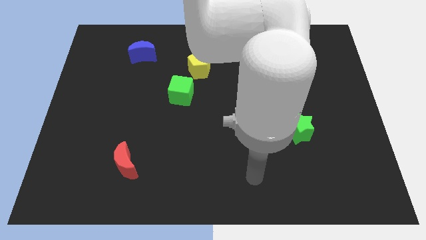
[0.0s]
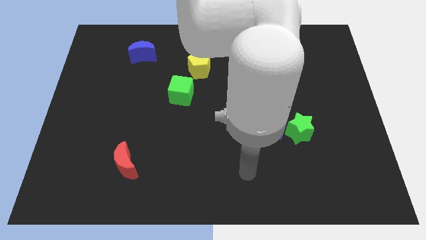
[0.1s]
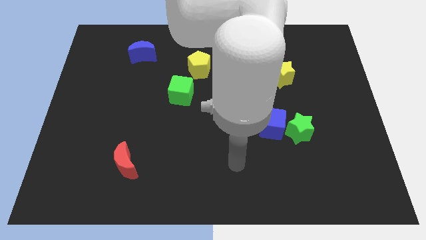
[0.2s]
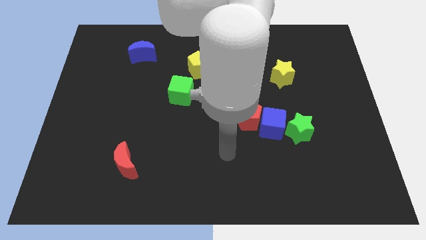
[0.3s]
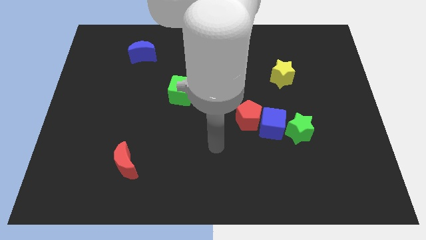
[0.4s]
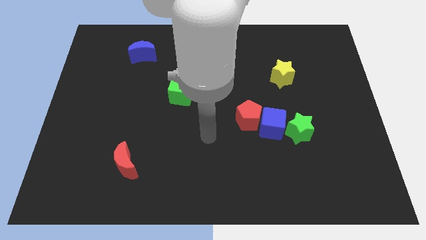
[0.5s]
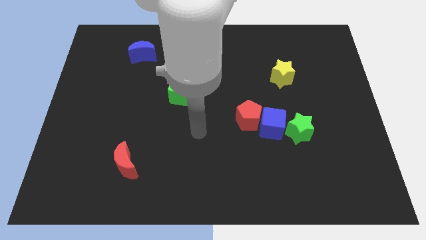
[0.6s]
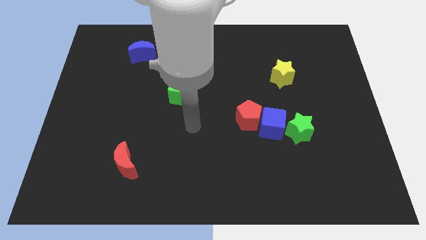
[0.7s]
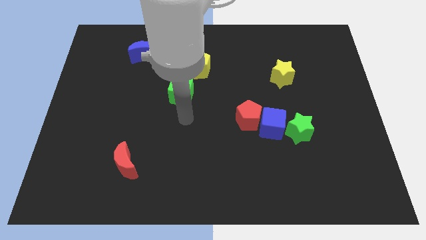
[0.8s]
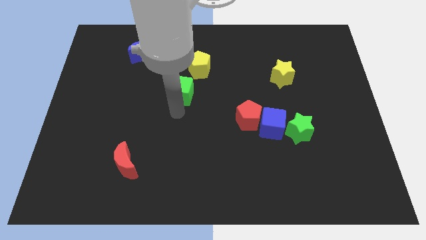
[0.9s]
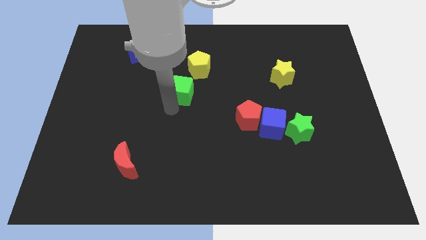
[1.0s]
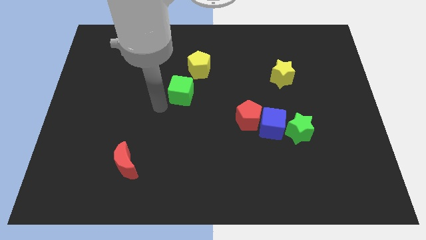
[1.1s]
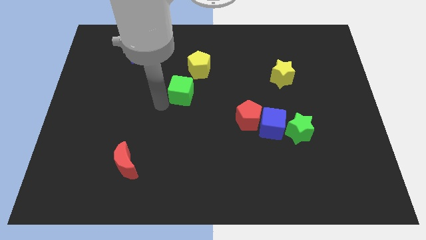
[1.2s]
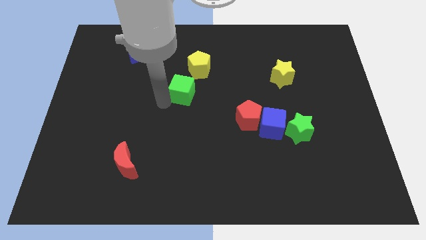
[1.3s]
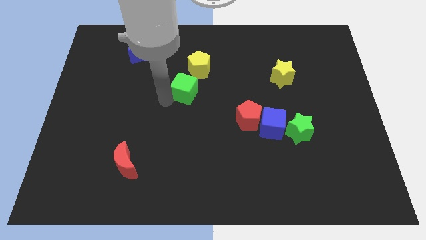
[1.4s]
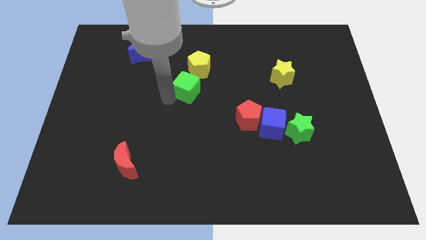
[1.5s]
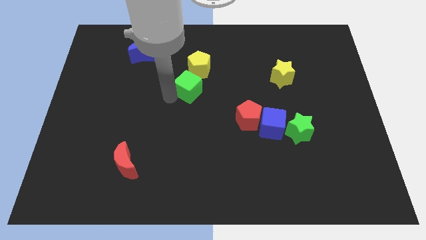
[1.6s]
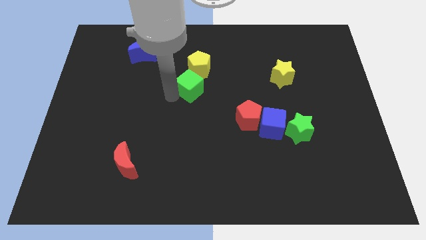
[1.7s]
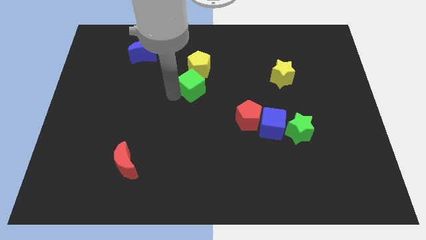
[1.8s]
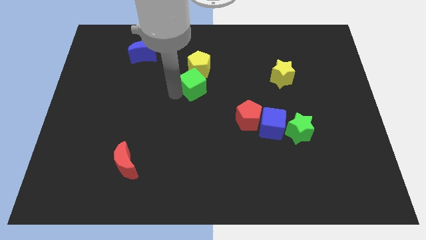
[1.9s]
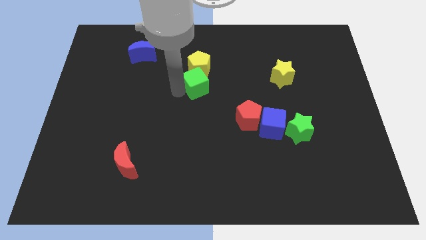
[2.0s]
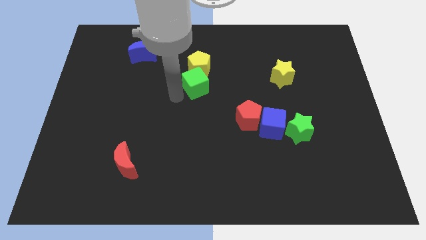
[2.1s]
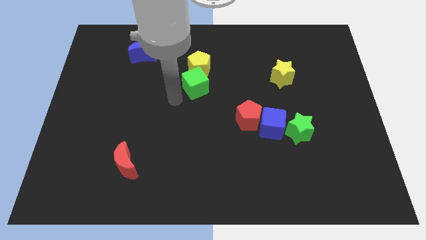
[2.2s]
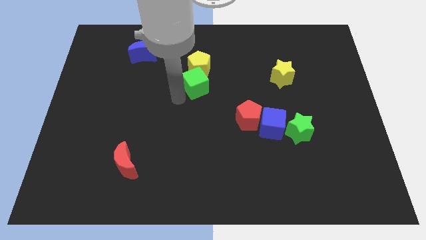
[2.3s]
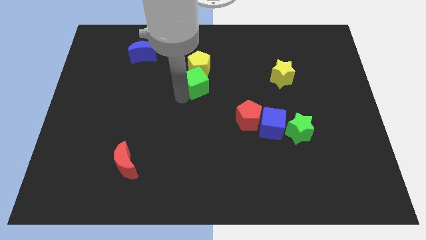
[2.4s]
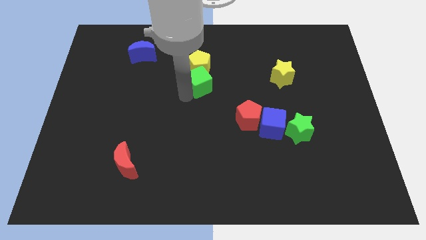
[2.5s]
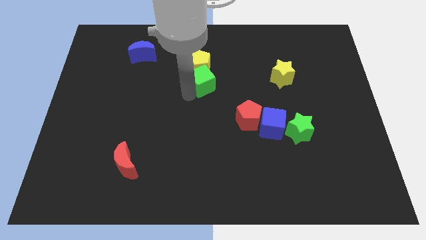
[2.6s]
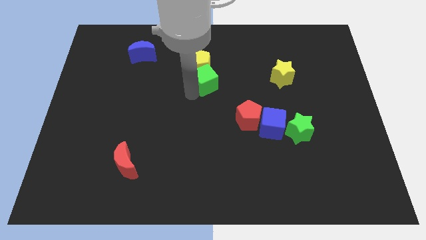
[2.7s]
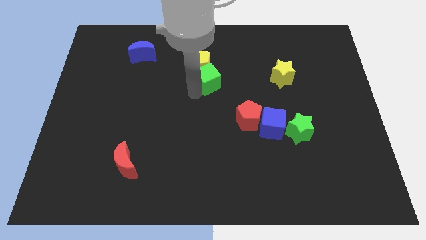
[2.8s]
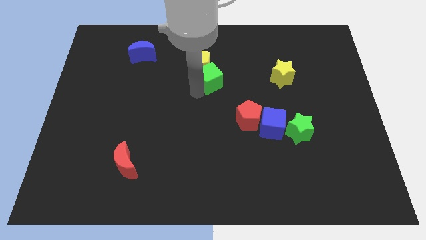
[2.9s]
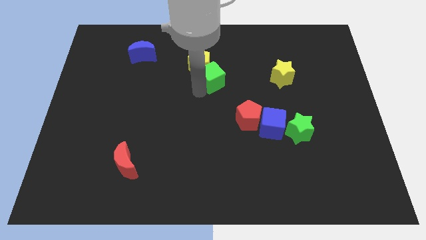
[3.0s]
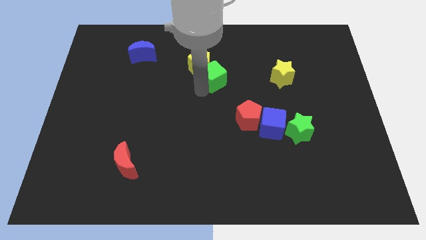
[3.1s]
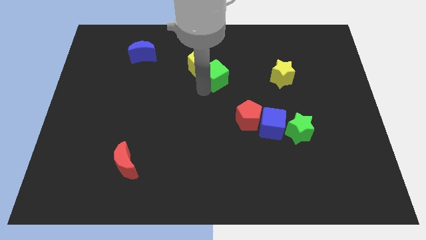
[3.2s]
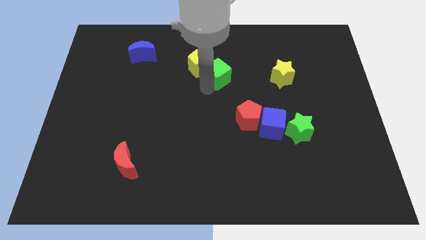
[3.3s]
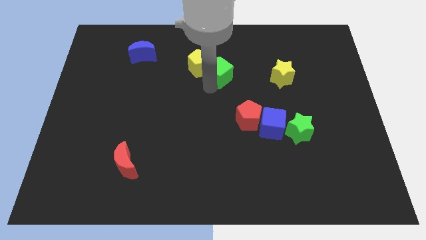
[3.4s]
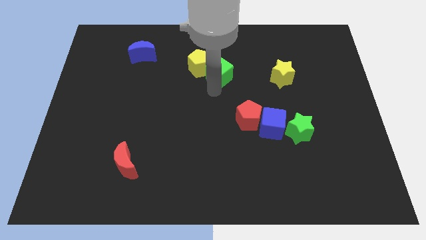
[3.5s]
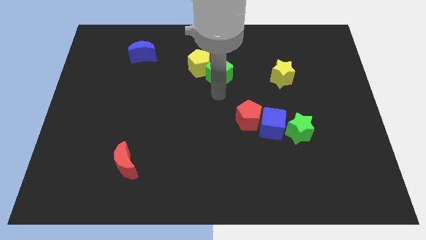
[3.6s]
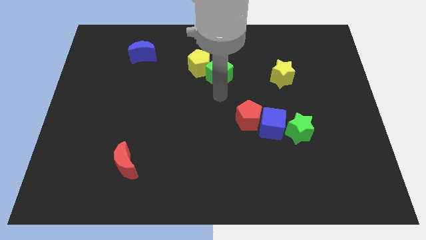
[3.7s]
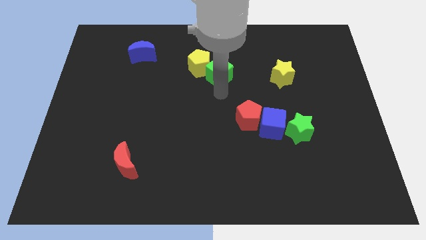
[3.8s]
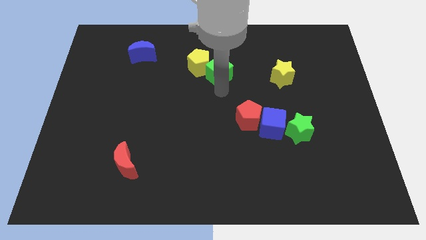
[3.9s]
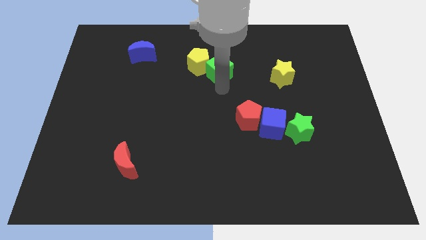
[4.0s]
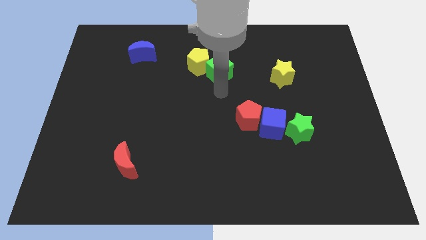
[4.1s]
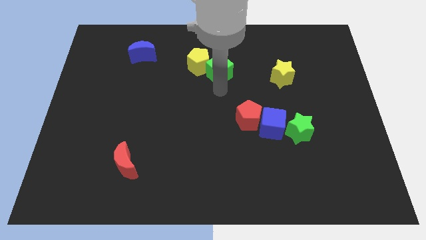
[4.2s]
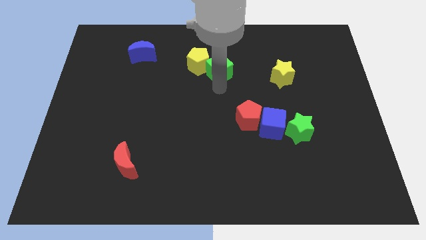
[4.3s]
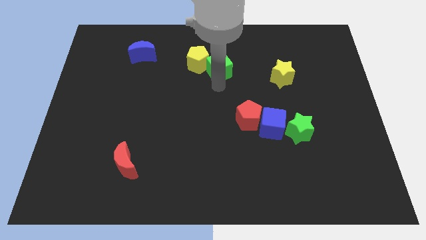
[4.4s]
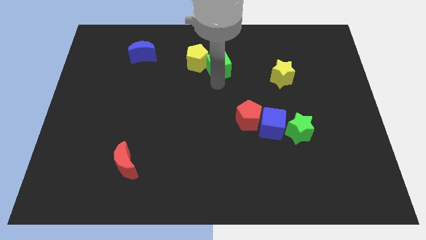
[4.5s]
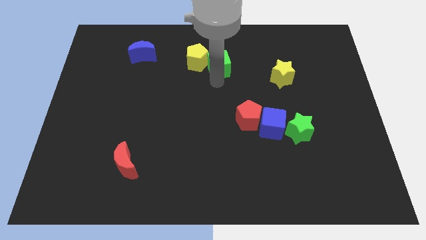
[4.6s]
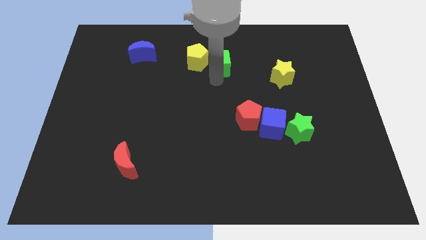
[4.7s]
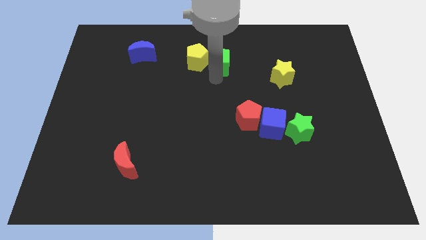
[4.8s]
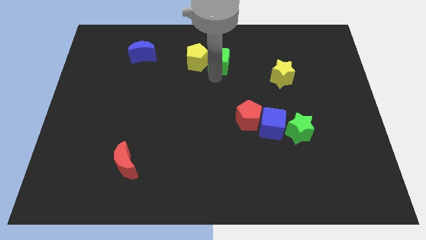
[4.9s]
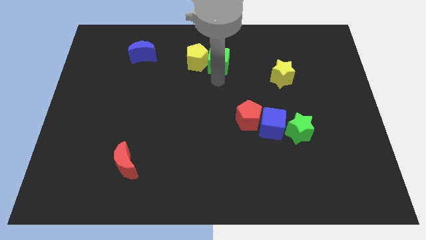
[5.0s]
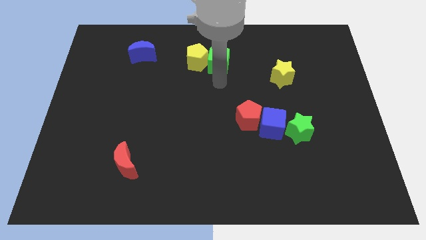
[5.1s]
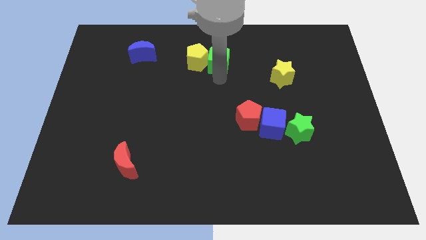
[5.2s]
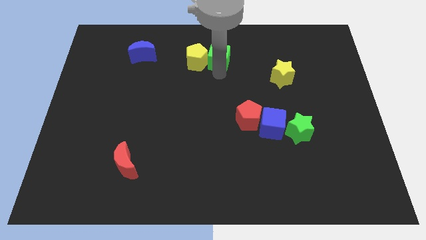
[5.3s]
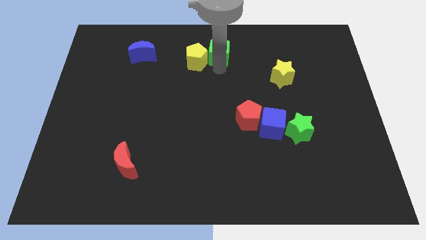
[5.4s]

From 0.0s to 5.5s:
push the green cube to the top

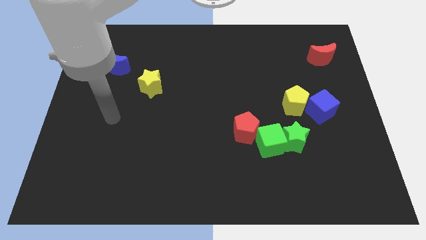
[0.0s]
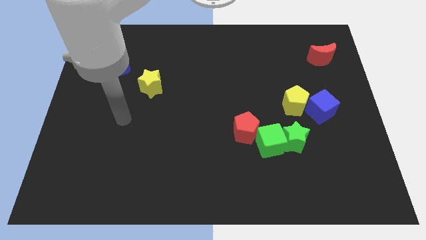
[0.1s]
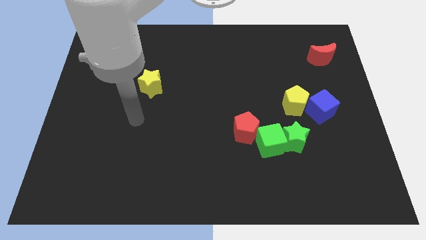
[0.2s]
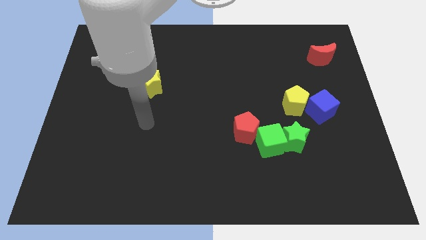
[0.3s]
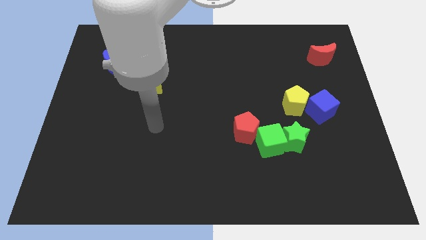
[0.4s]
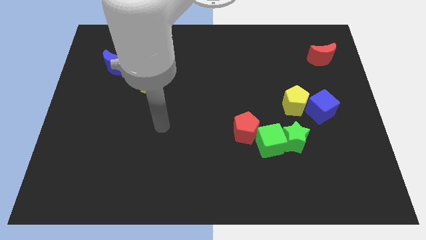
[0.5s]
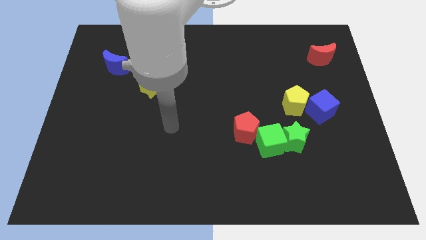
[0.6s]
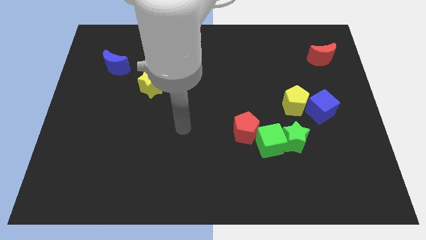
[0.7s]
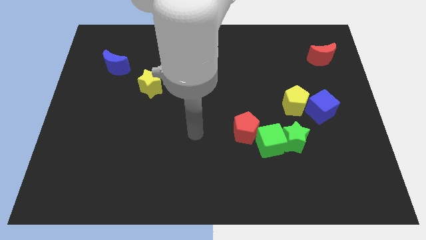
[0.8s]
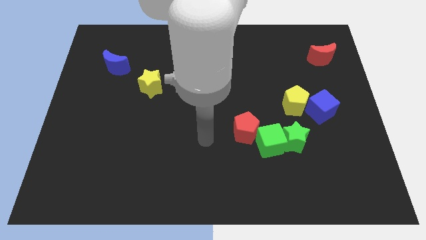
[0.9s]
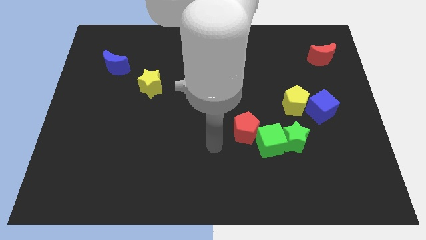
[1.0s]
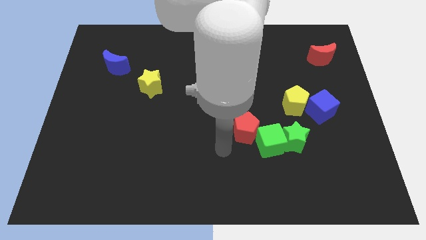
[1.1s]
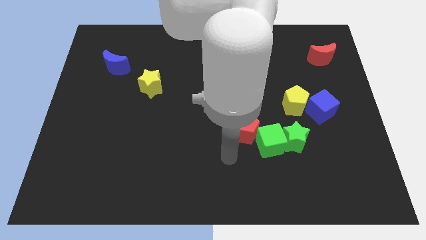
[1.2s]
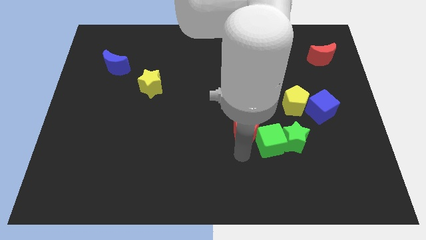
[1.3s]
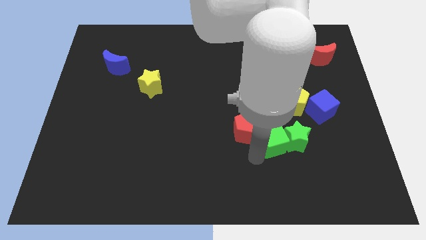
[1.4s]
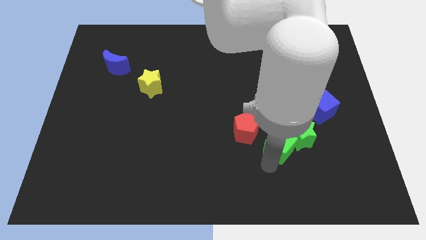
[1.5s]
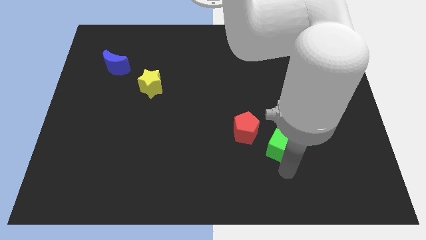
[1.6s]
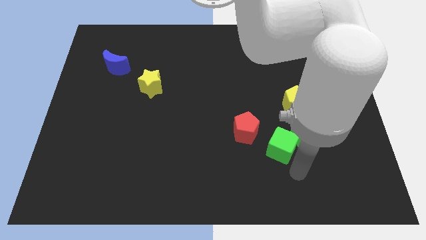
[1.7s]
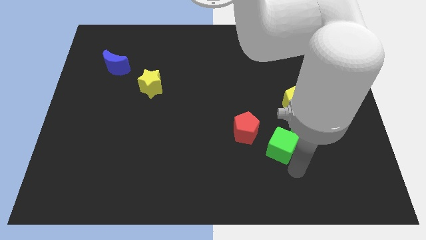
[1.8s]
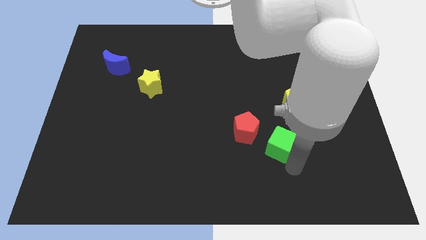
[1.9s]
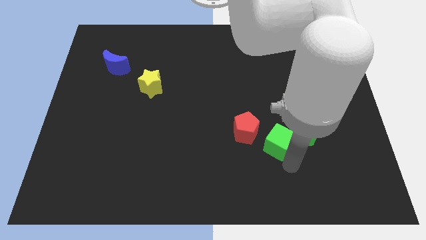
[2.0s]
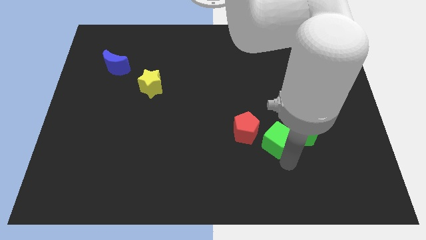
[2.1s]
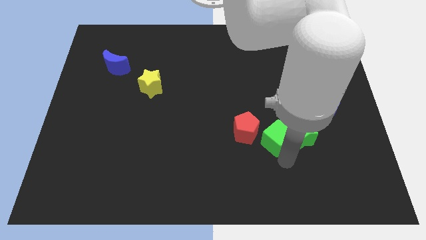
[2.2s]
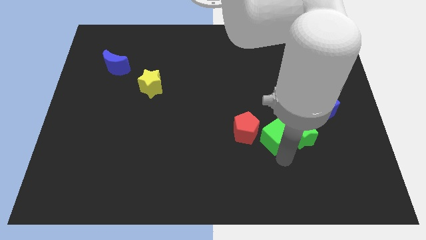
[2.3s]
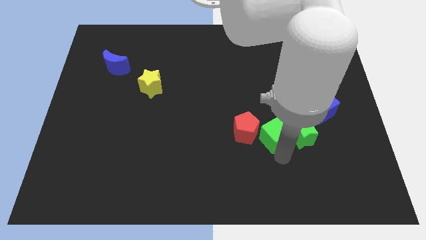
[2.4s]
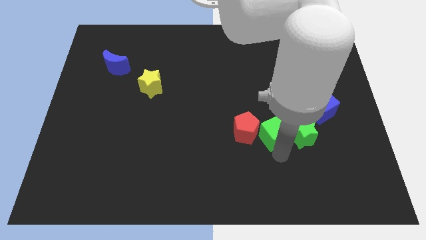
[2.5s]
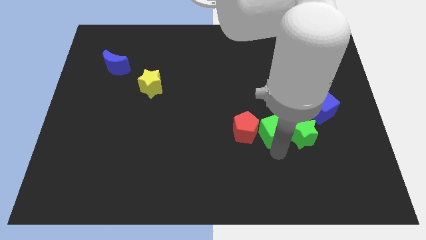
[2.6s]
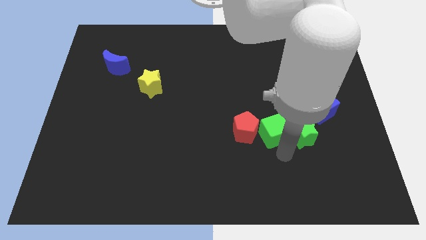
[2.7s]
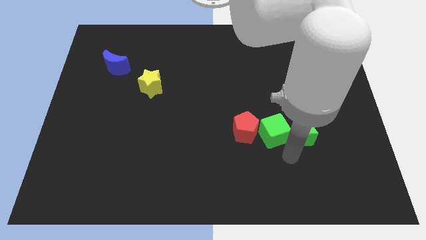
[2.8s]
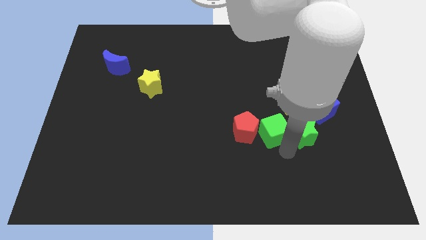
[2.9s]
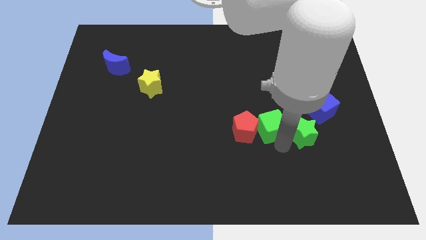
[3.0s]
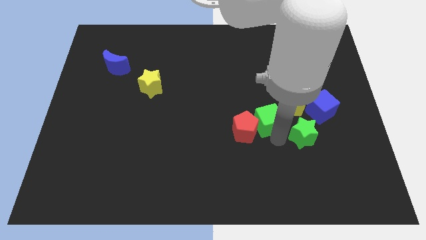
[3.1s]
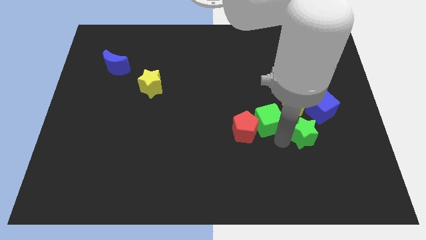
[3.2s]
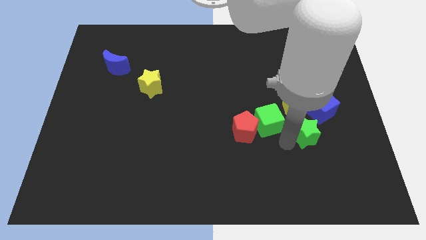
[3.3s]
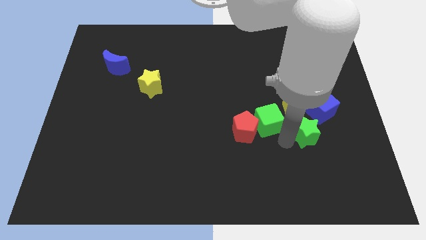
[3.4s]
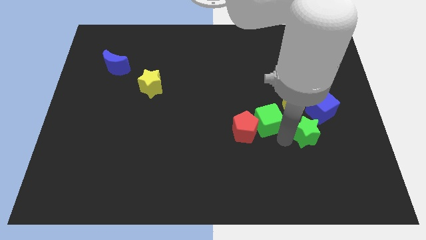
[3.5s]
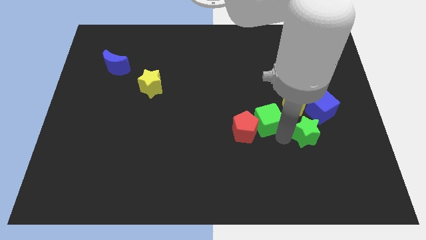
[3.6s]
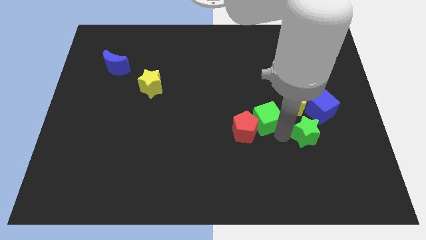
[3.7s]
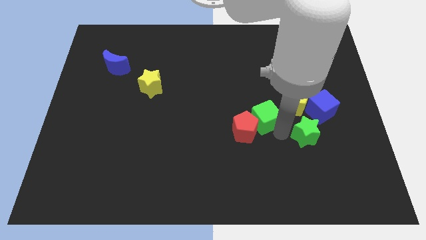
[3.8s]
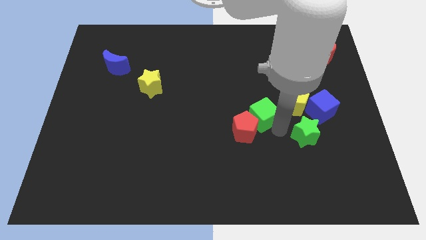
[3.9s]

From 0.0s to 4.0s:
push the green cube to the center
